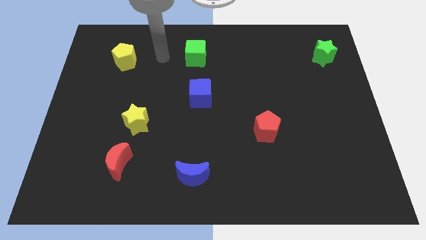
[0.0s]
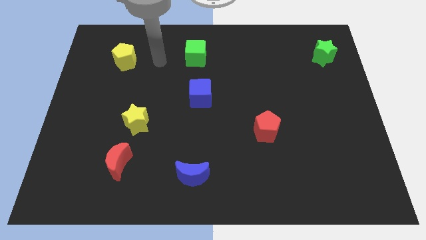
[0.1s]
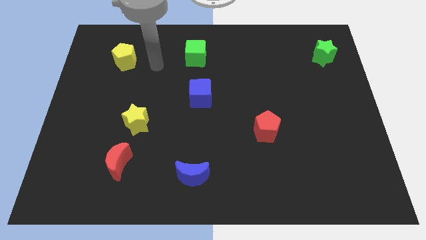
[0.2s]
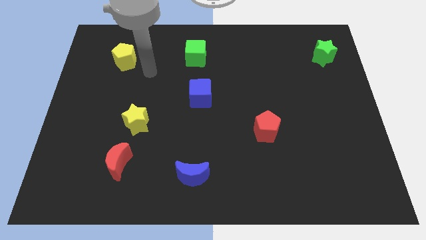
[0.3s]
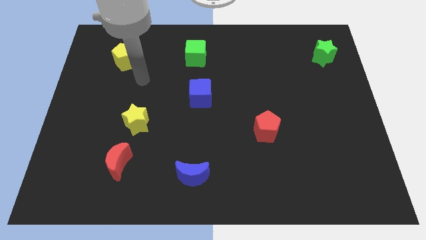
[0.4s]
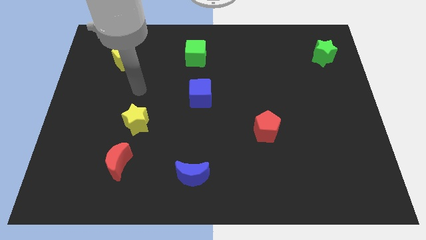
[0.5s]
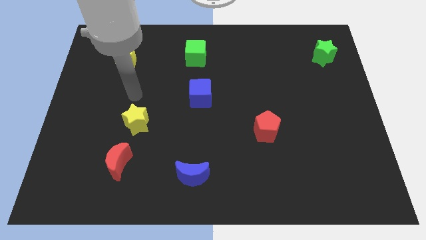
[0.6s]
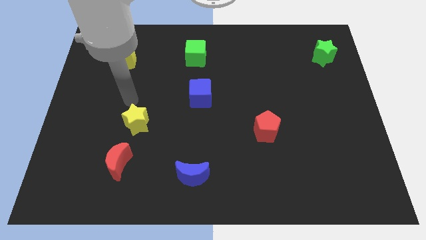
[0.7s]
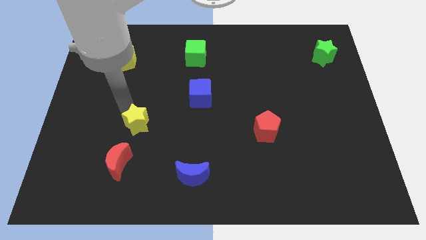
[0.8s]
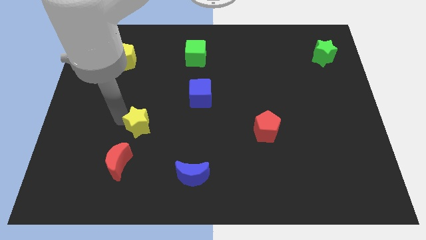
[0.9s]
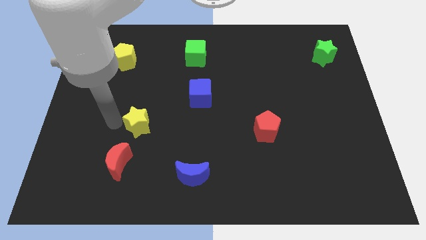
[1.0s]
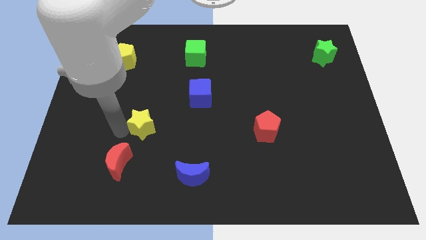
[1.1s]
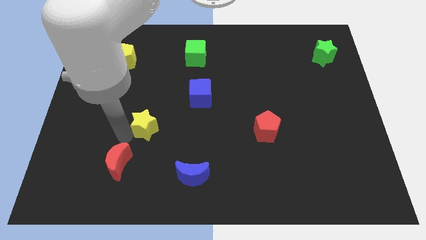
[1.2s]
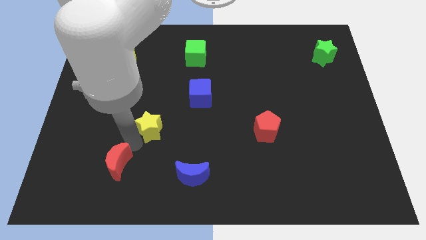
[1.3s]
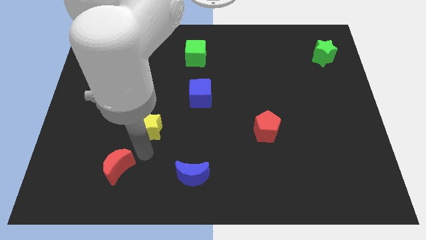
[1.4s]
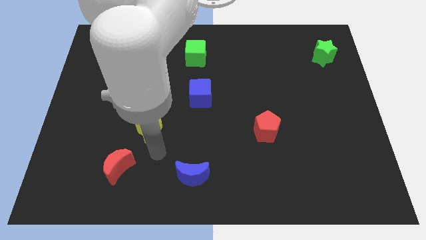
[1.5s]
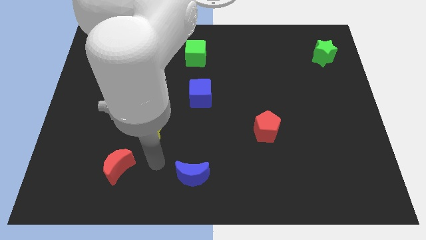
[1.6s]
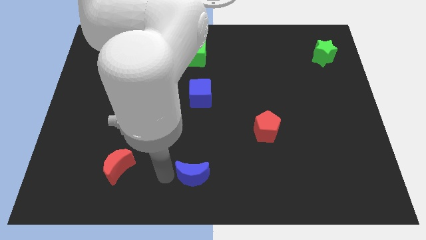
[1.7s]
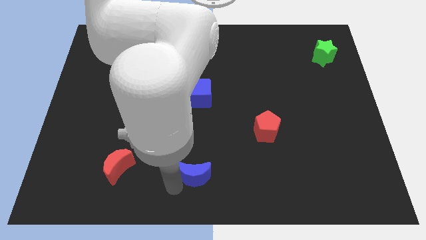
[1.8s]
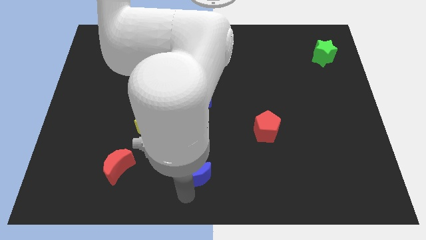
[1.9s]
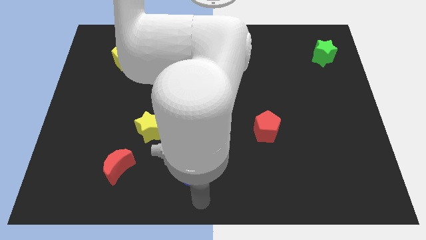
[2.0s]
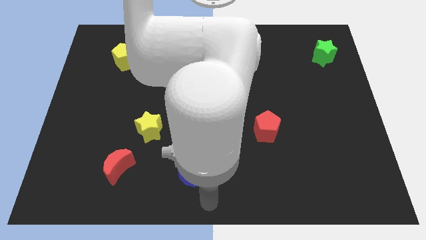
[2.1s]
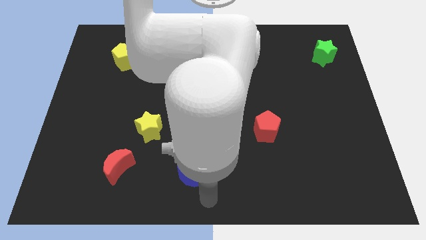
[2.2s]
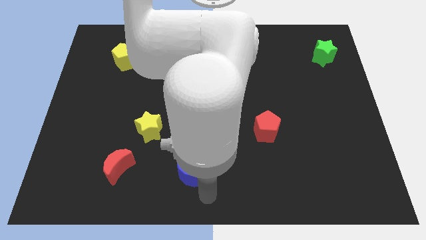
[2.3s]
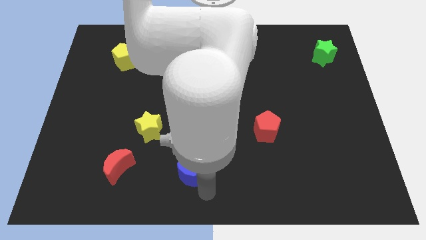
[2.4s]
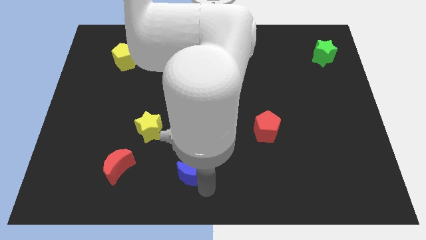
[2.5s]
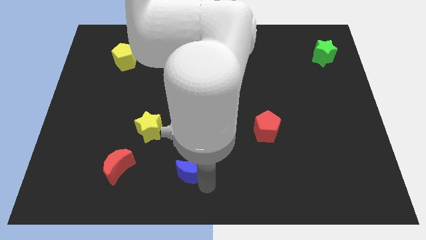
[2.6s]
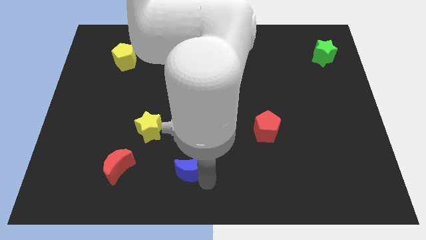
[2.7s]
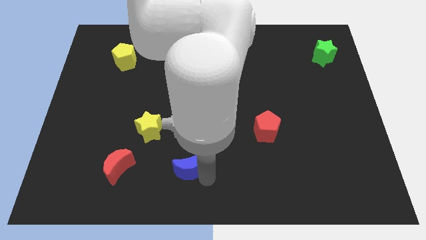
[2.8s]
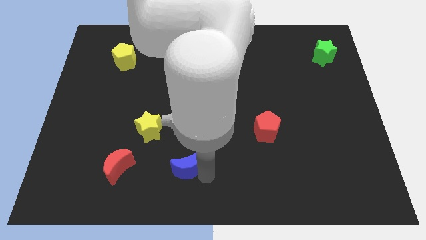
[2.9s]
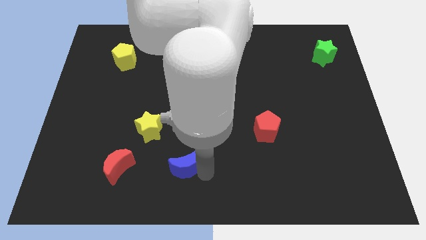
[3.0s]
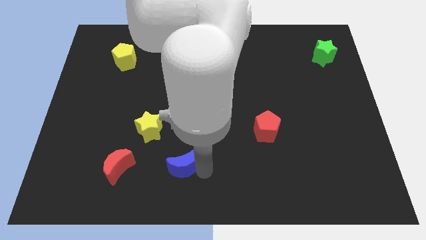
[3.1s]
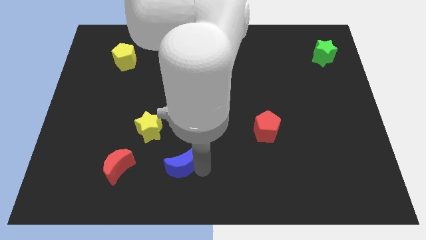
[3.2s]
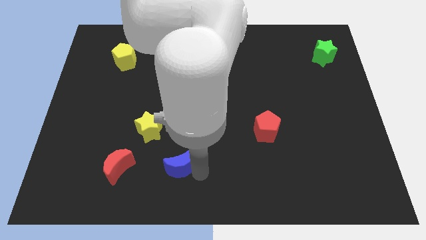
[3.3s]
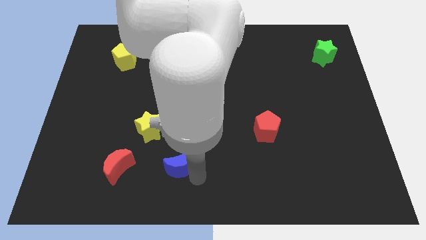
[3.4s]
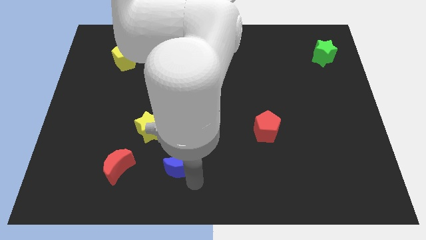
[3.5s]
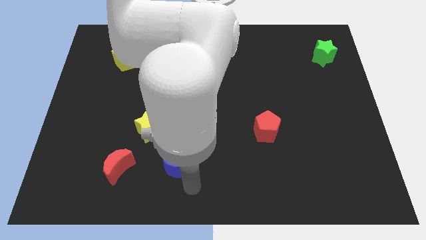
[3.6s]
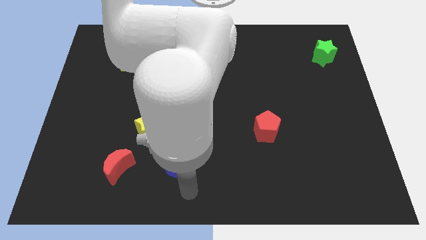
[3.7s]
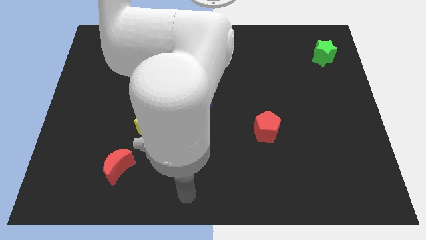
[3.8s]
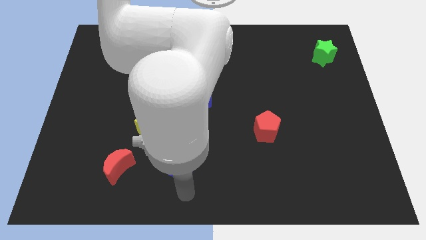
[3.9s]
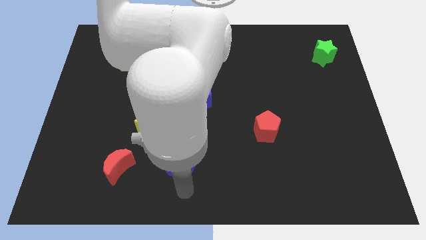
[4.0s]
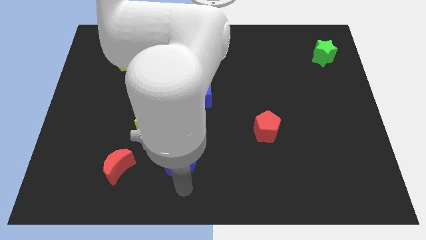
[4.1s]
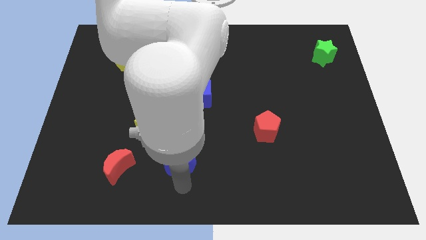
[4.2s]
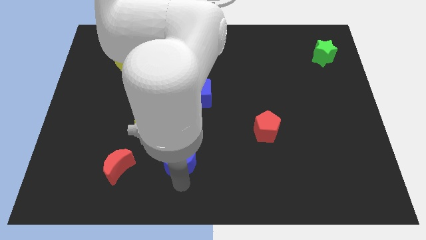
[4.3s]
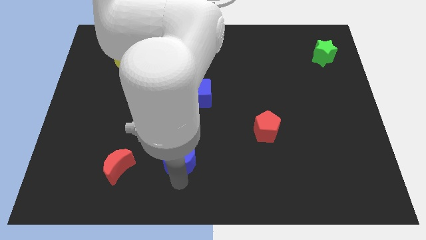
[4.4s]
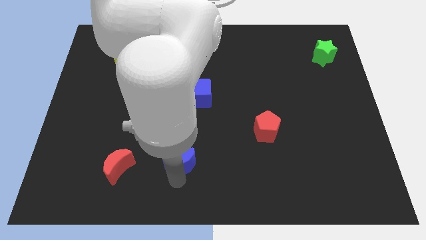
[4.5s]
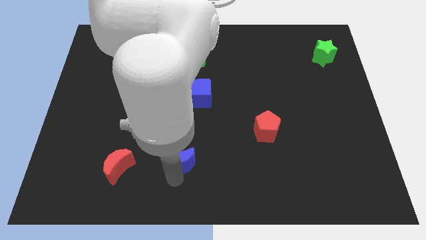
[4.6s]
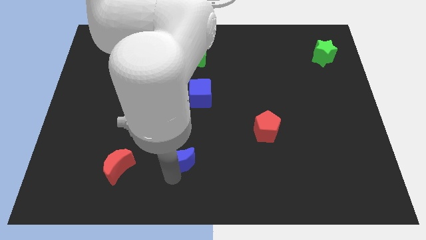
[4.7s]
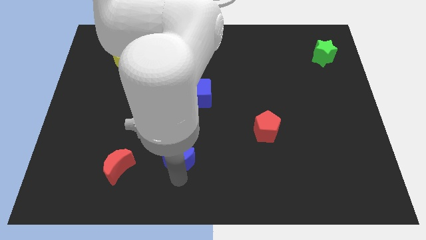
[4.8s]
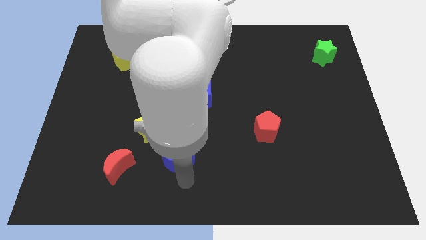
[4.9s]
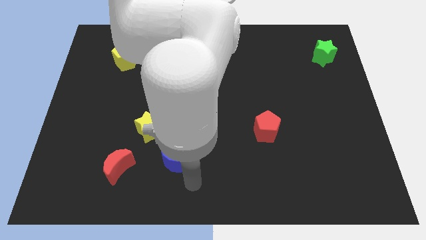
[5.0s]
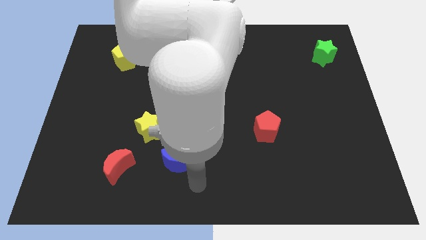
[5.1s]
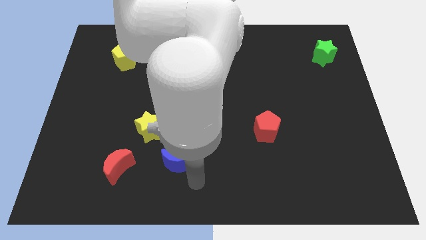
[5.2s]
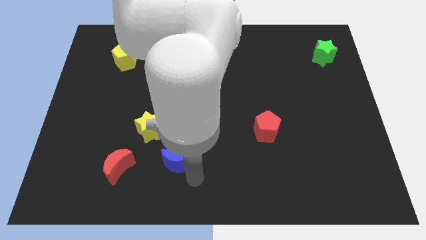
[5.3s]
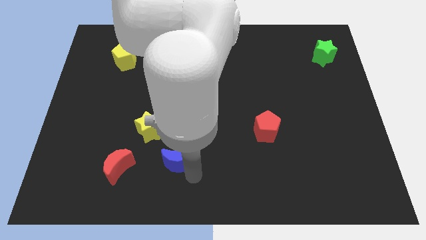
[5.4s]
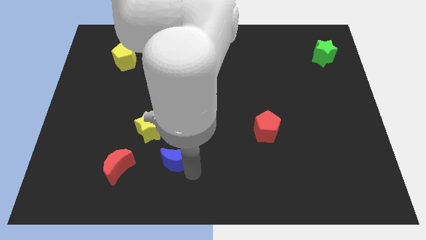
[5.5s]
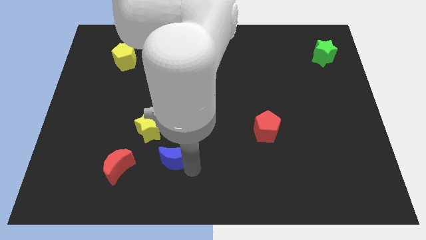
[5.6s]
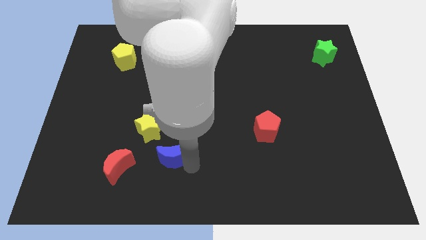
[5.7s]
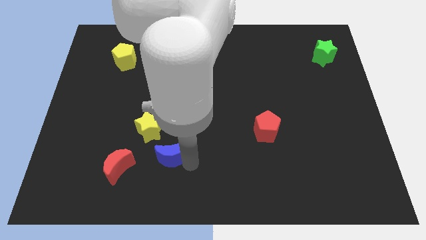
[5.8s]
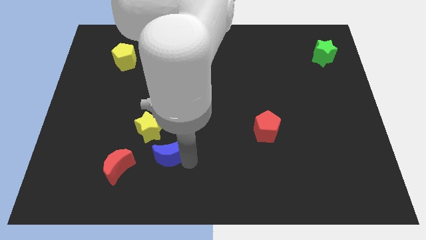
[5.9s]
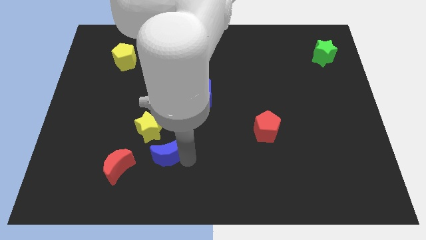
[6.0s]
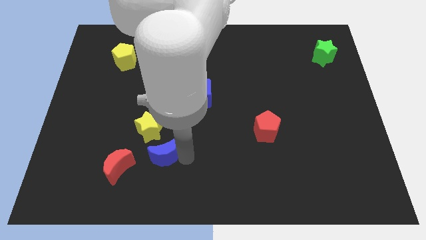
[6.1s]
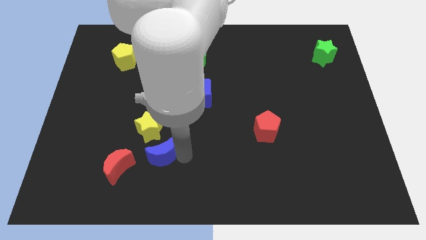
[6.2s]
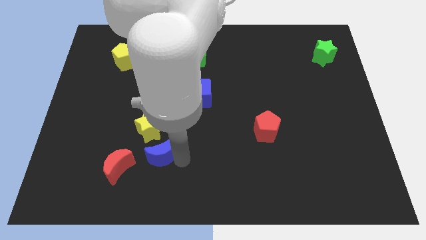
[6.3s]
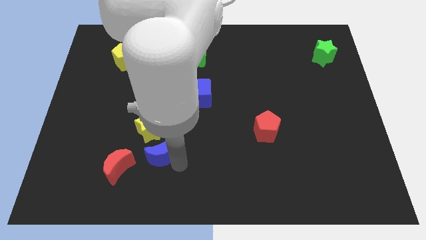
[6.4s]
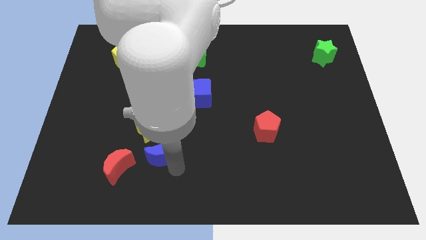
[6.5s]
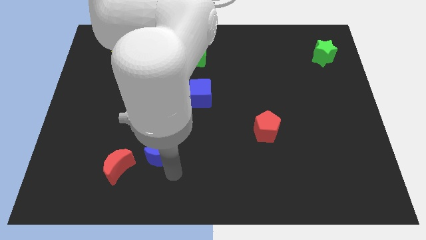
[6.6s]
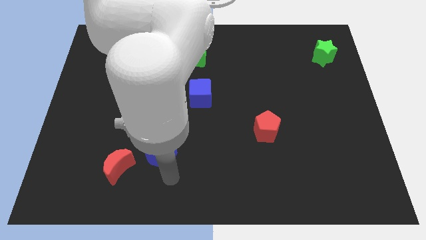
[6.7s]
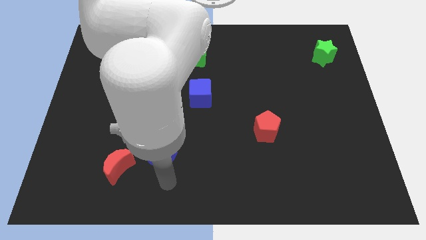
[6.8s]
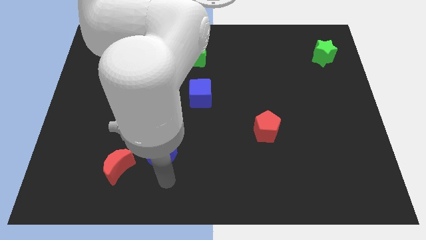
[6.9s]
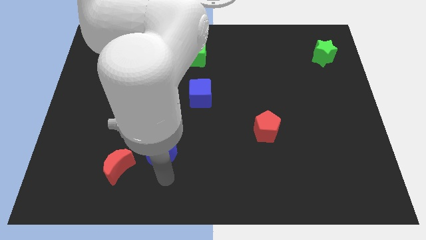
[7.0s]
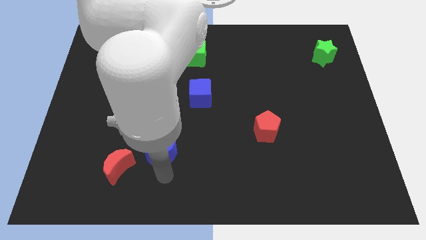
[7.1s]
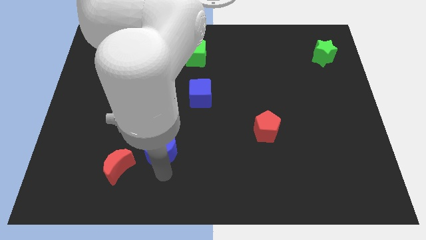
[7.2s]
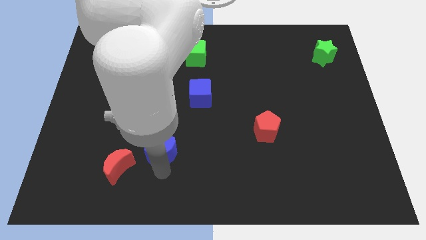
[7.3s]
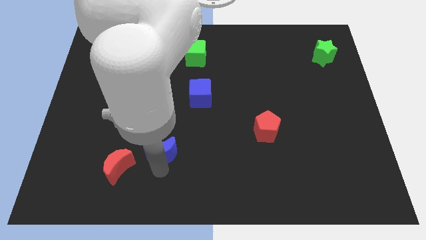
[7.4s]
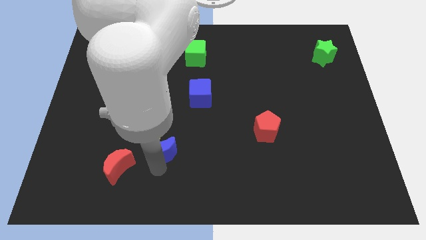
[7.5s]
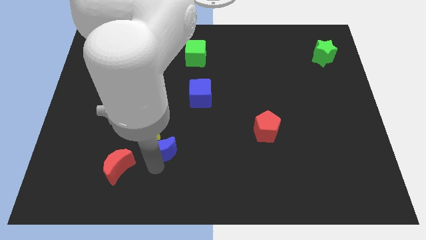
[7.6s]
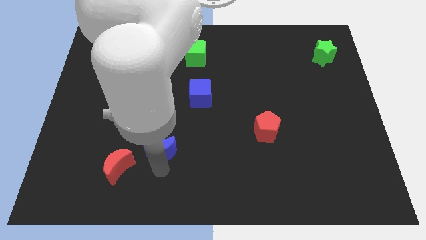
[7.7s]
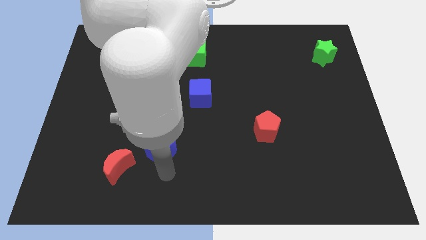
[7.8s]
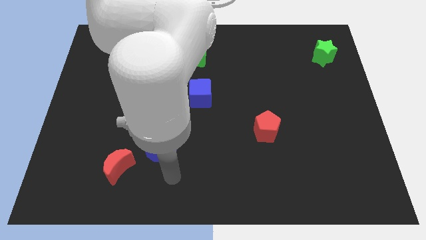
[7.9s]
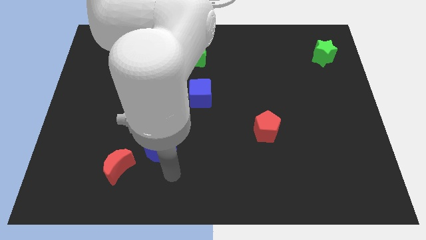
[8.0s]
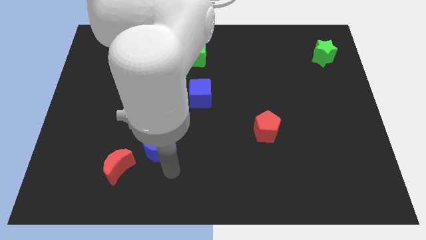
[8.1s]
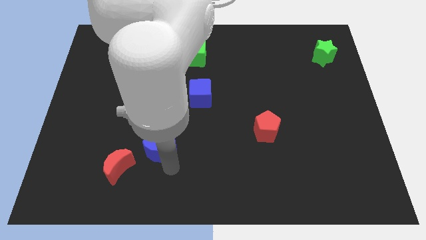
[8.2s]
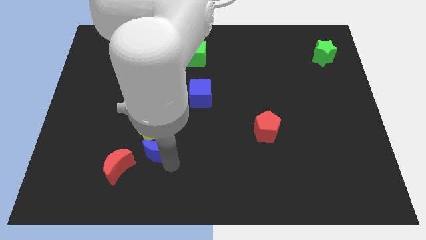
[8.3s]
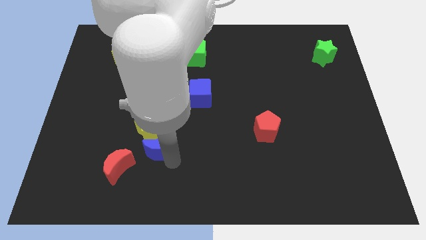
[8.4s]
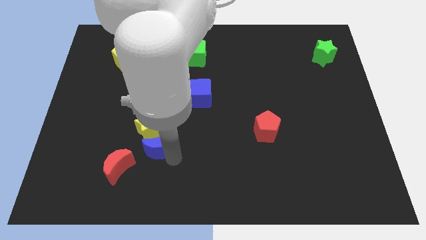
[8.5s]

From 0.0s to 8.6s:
move the blue moon to the yellow star
